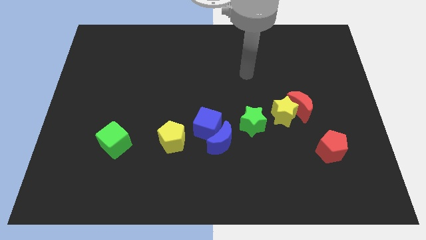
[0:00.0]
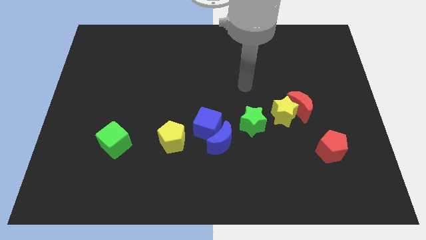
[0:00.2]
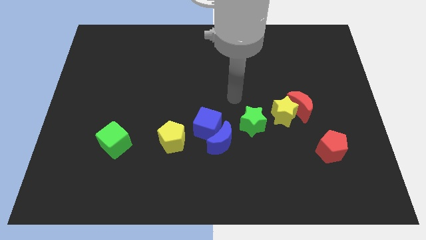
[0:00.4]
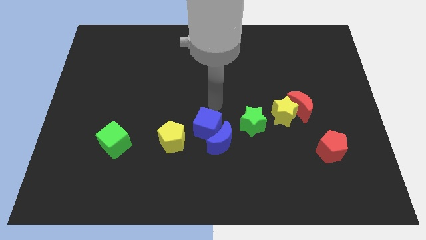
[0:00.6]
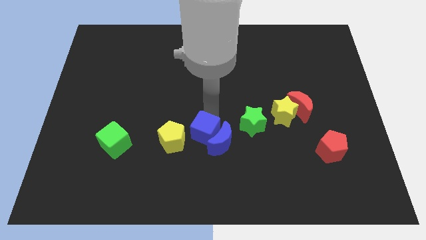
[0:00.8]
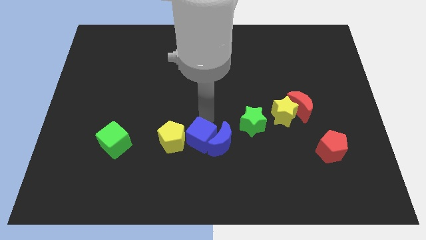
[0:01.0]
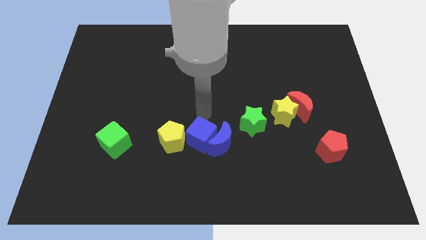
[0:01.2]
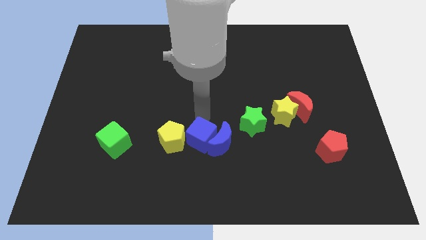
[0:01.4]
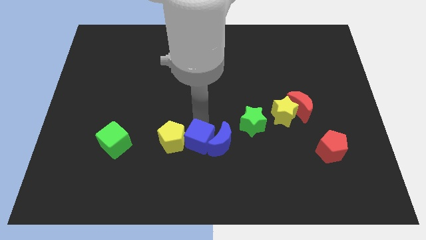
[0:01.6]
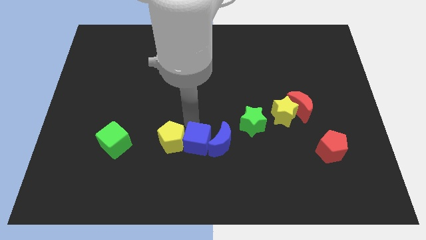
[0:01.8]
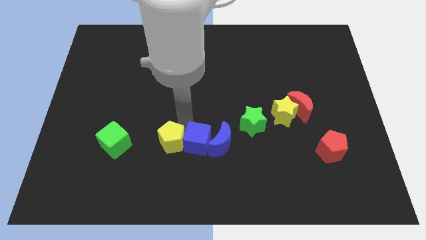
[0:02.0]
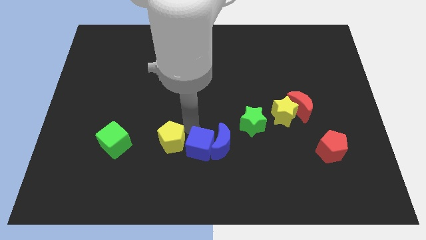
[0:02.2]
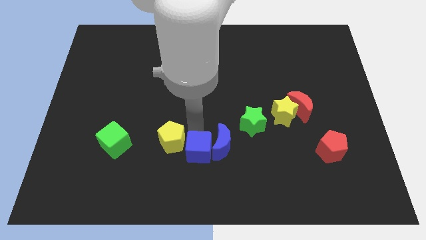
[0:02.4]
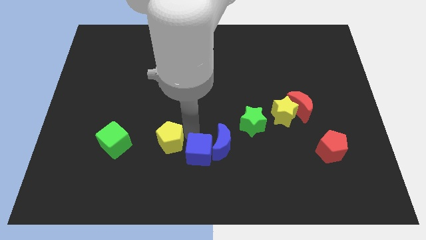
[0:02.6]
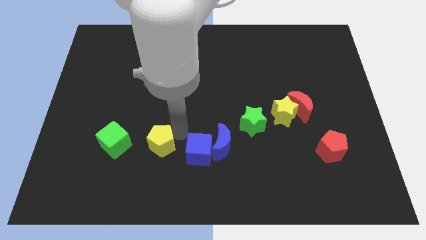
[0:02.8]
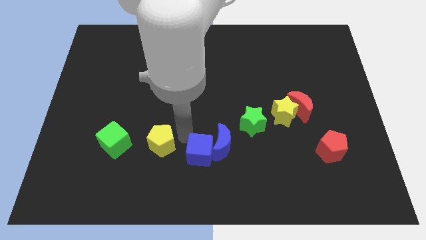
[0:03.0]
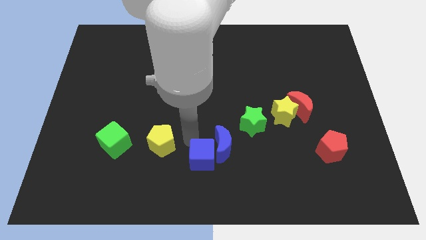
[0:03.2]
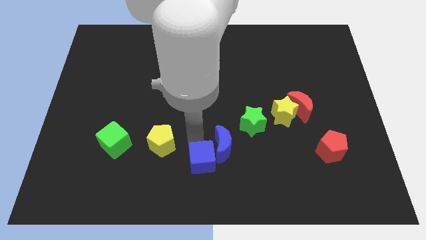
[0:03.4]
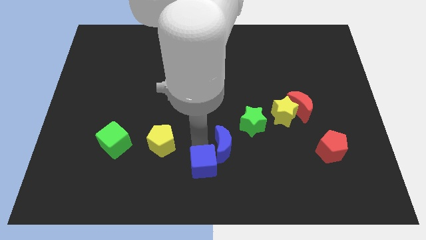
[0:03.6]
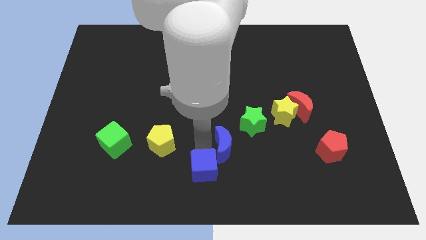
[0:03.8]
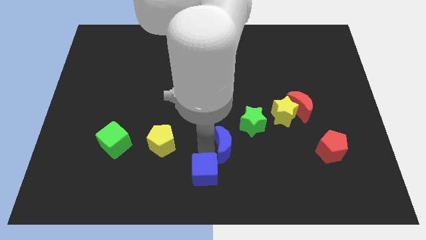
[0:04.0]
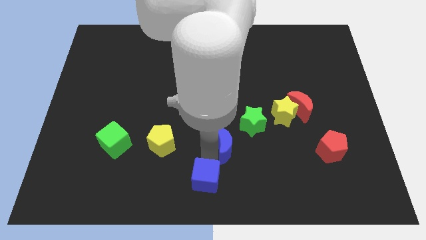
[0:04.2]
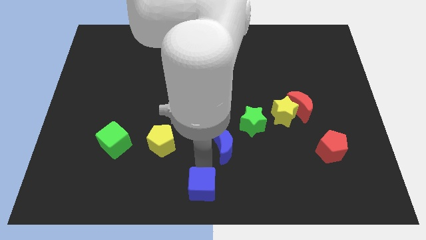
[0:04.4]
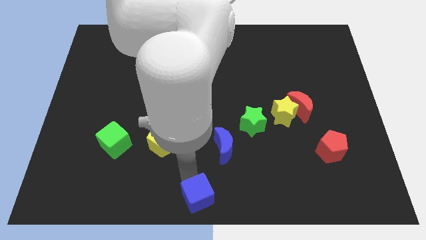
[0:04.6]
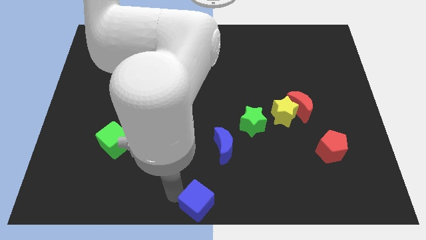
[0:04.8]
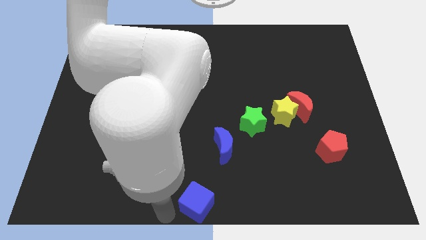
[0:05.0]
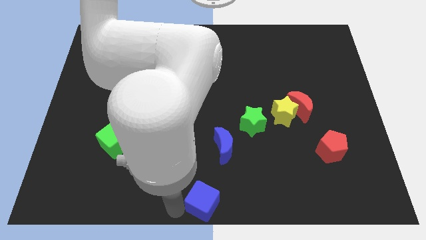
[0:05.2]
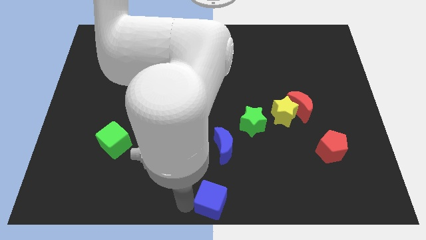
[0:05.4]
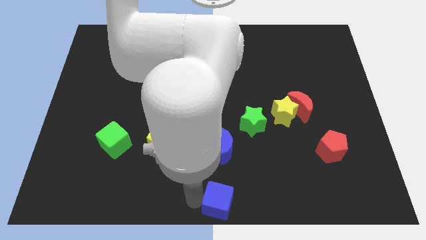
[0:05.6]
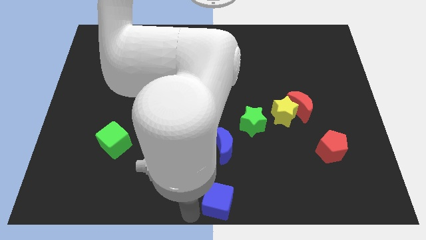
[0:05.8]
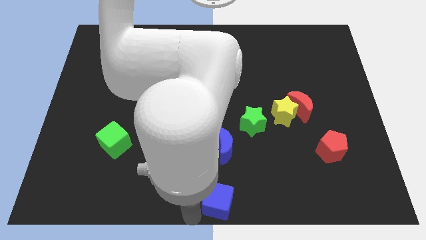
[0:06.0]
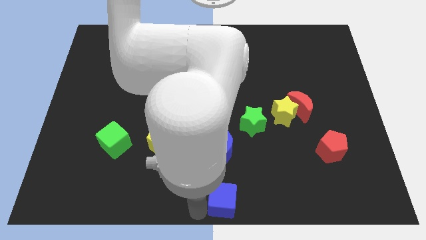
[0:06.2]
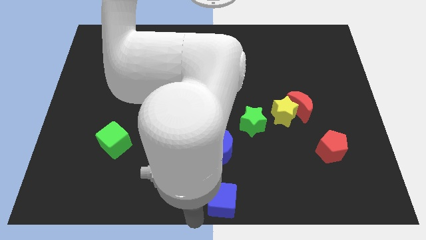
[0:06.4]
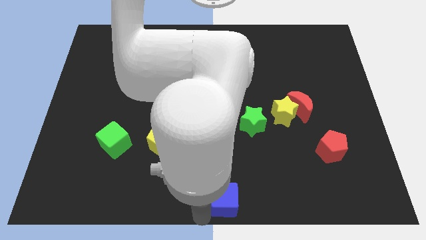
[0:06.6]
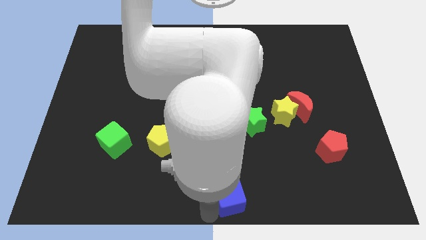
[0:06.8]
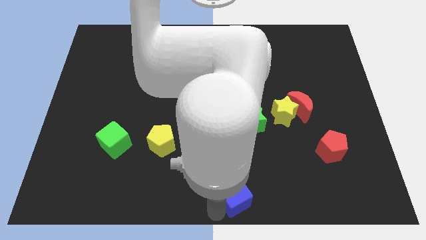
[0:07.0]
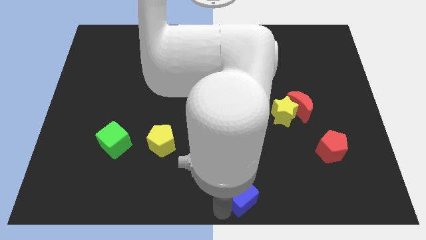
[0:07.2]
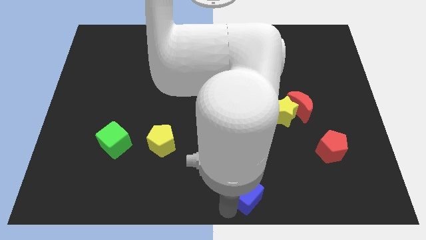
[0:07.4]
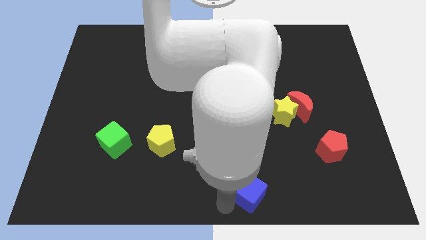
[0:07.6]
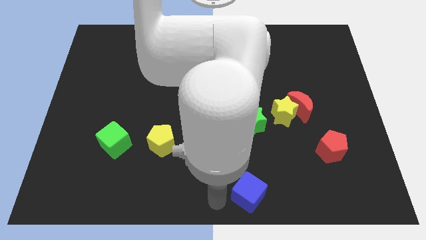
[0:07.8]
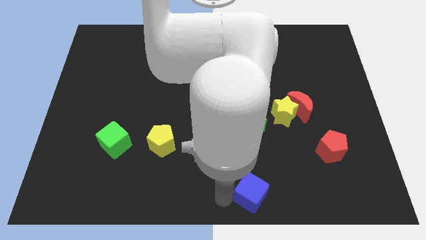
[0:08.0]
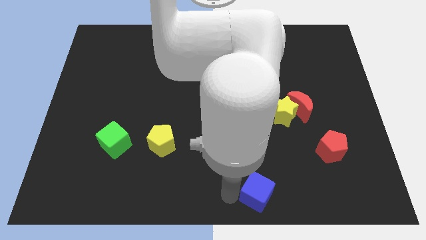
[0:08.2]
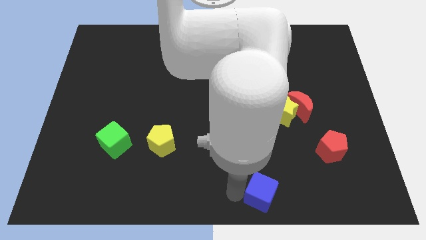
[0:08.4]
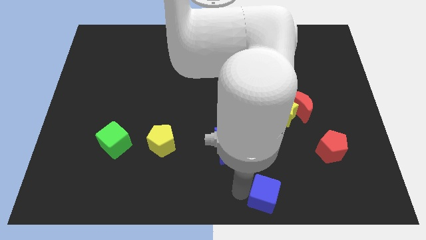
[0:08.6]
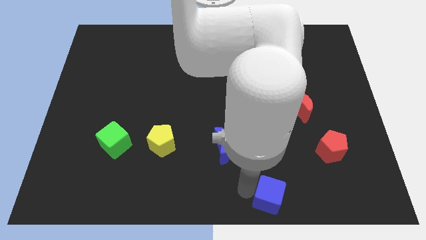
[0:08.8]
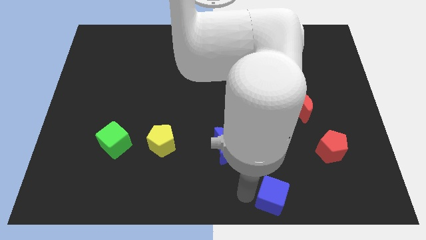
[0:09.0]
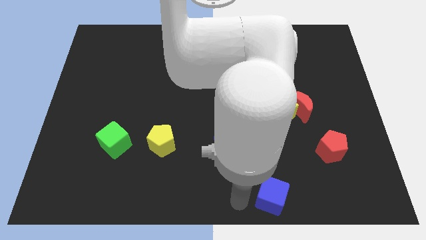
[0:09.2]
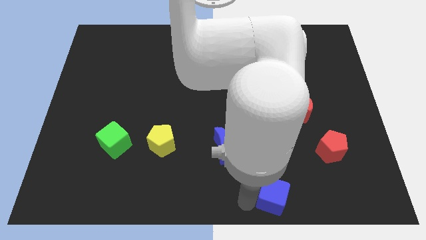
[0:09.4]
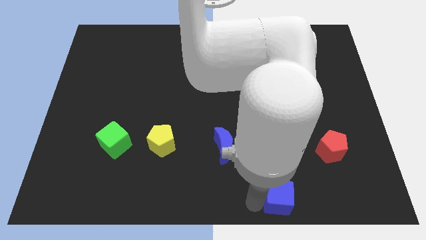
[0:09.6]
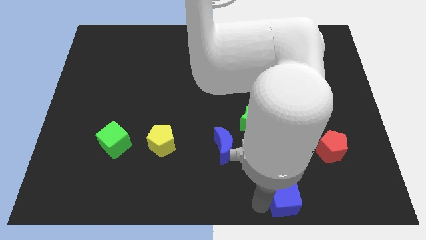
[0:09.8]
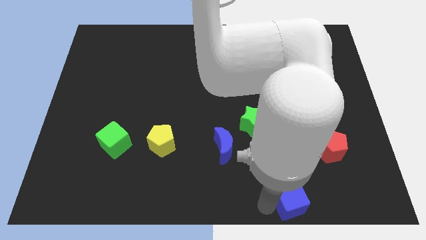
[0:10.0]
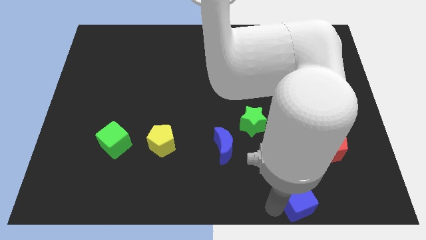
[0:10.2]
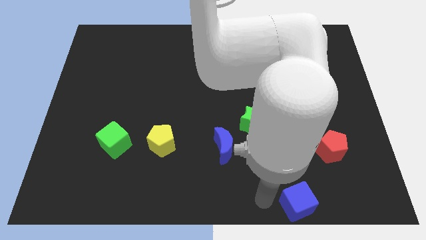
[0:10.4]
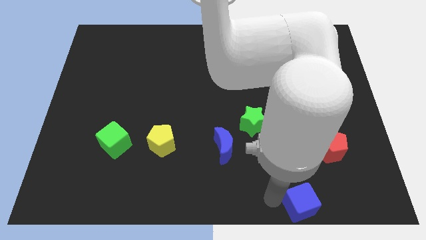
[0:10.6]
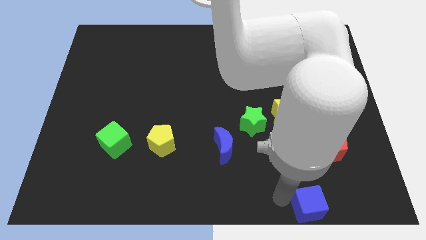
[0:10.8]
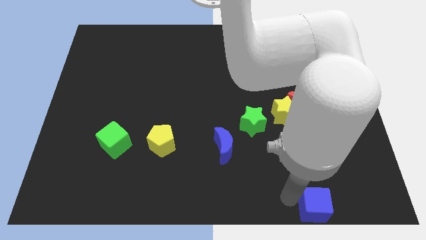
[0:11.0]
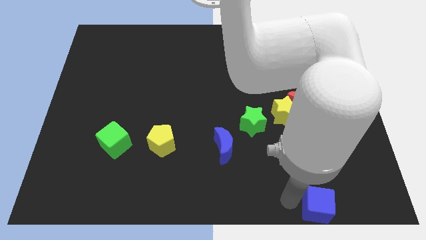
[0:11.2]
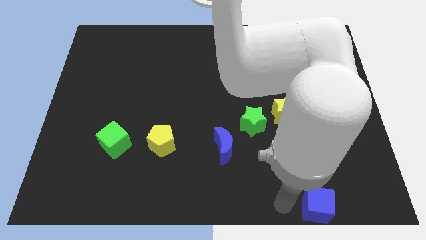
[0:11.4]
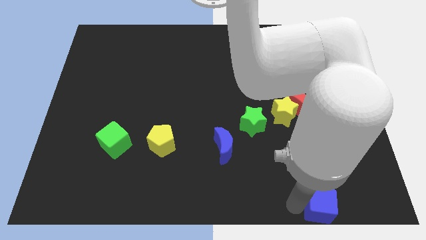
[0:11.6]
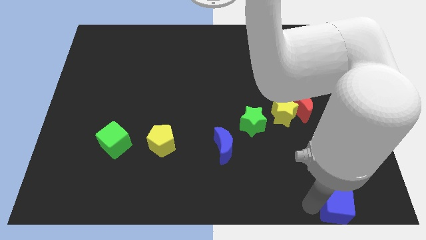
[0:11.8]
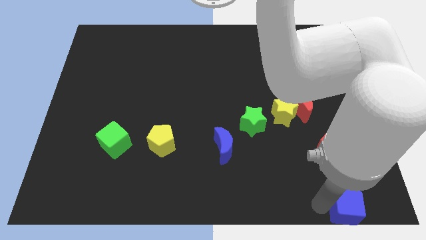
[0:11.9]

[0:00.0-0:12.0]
slide the blue cube to the bottom right corner
